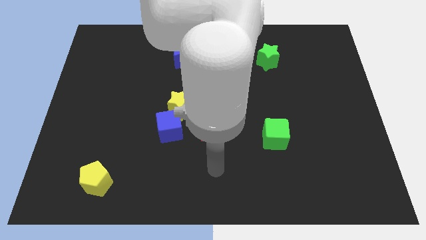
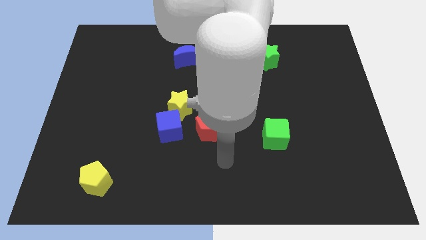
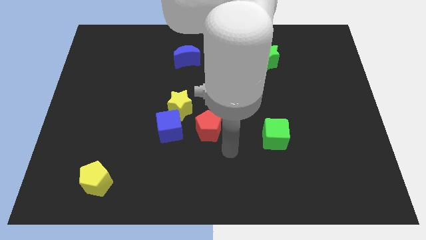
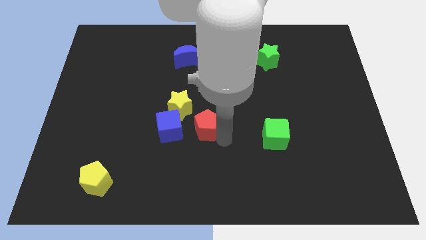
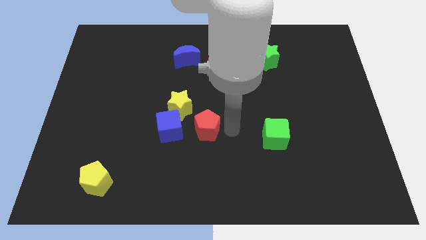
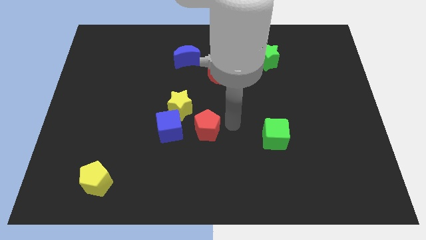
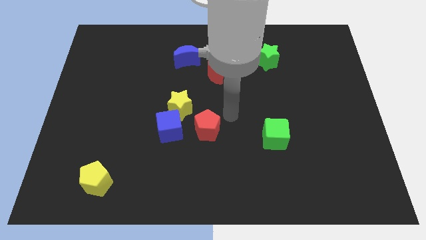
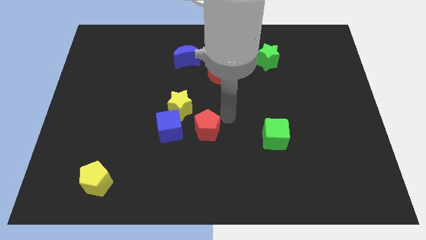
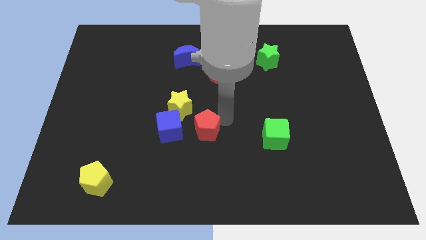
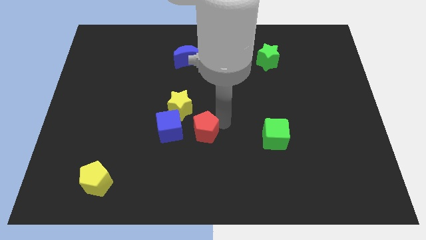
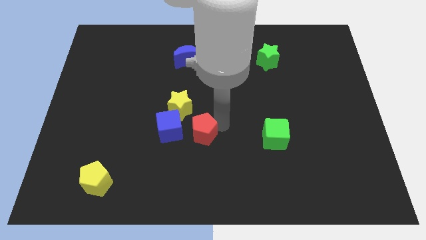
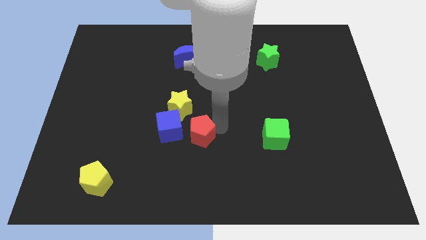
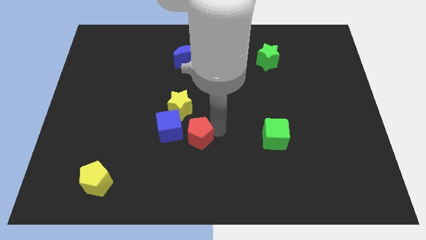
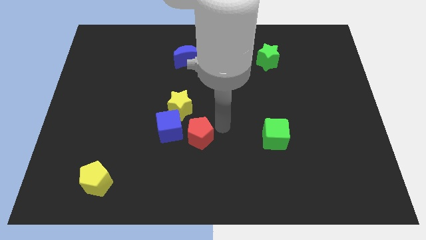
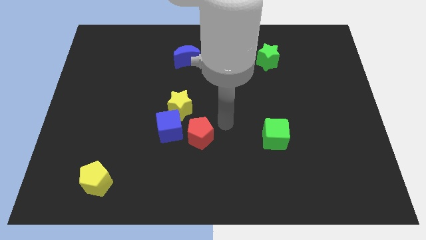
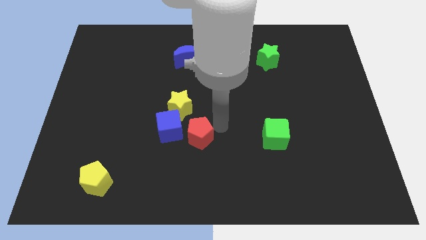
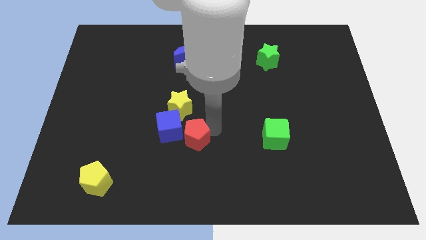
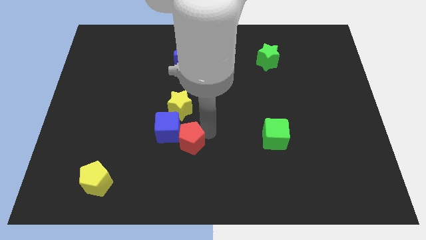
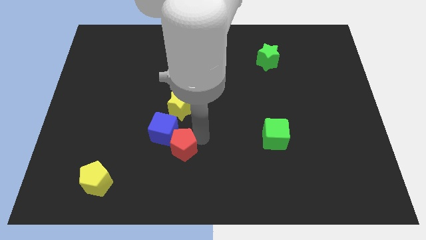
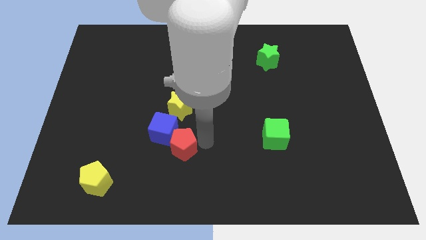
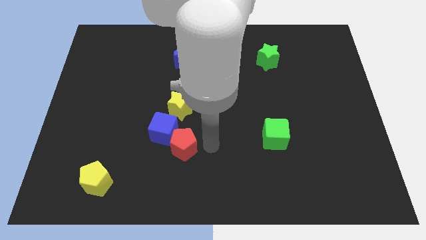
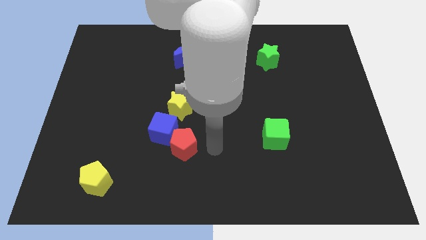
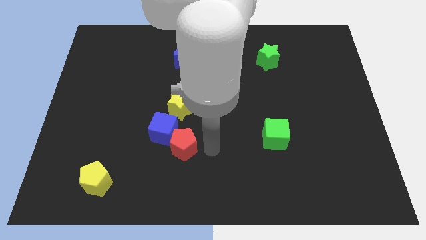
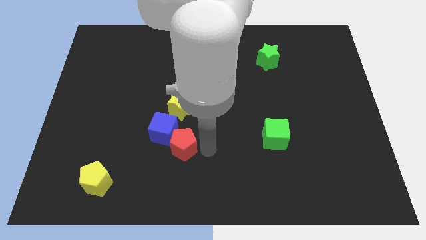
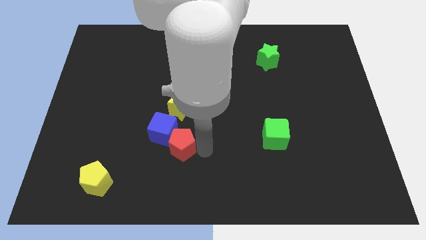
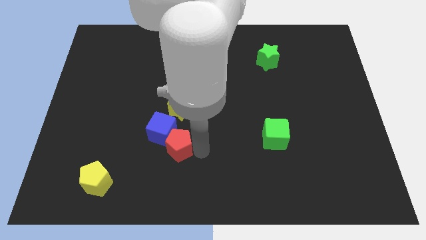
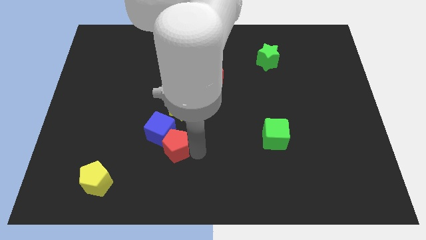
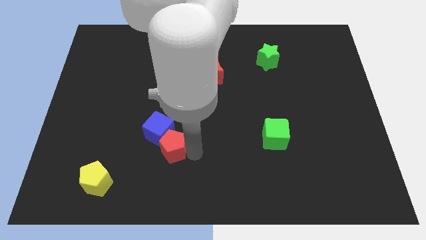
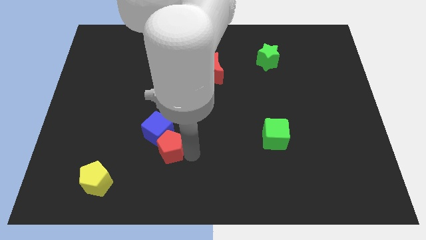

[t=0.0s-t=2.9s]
push the red pentagon left somewhat

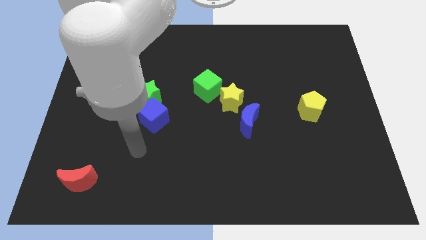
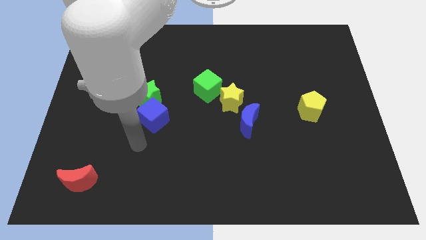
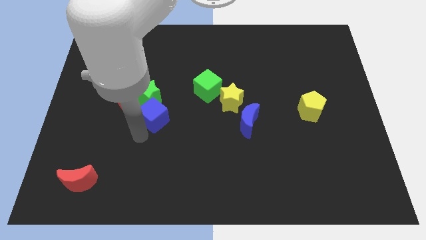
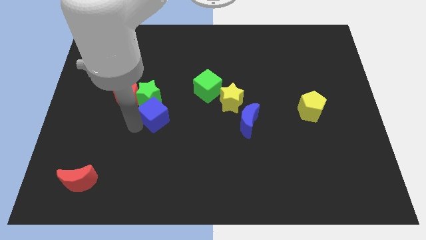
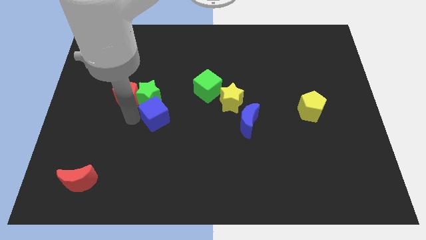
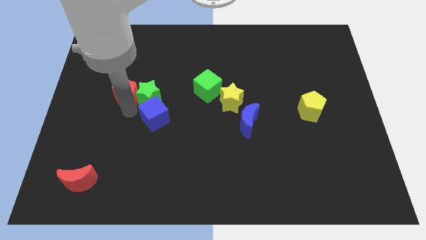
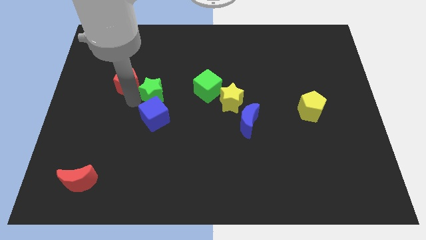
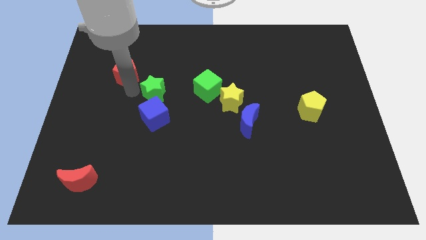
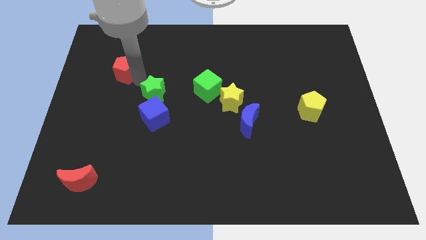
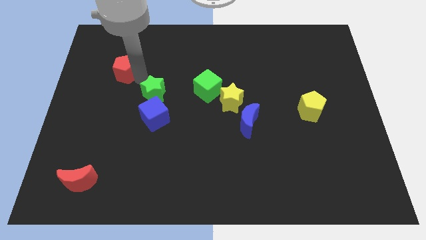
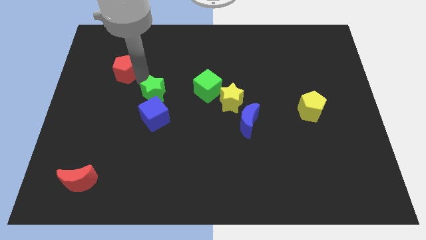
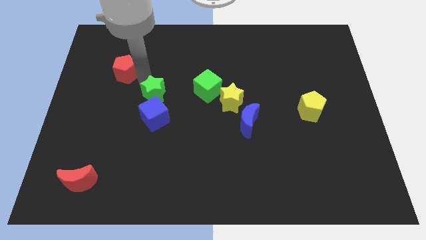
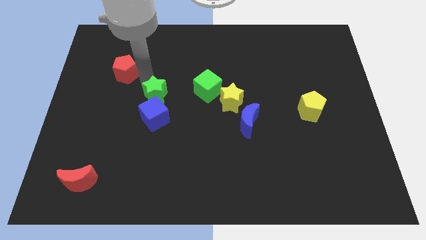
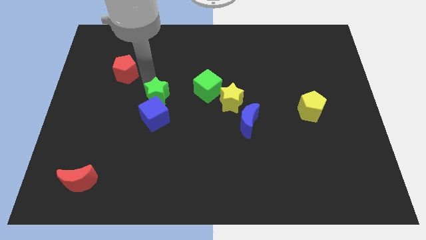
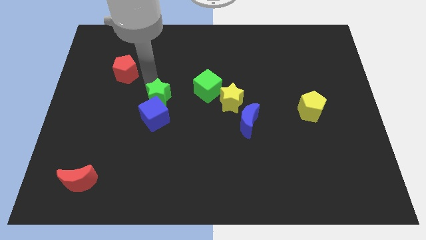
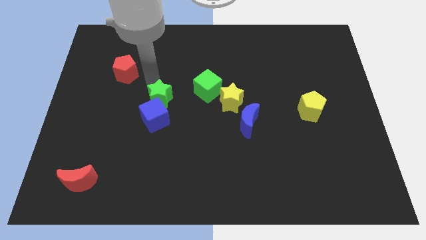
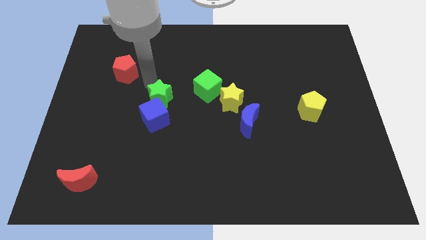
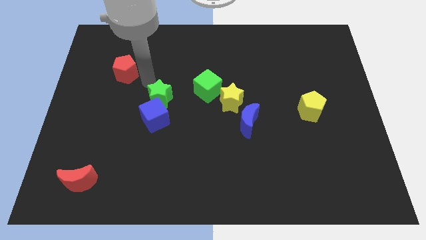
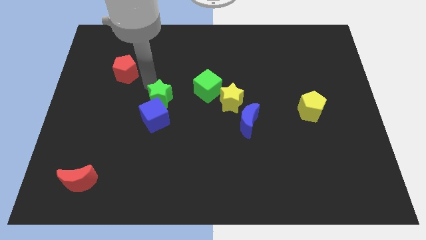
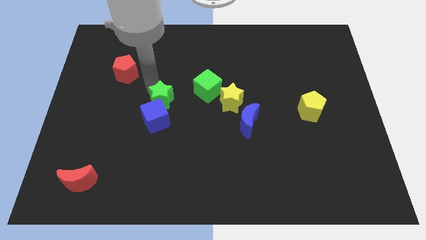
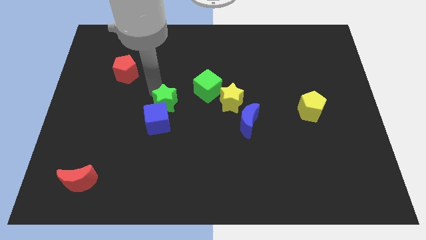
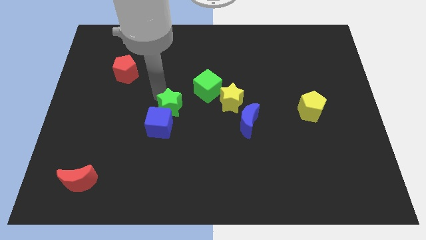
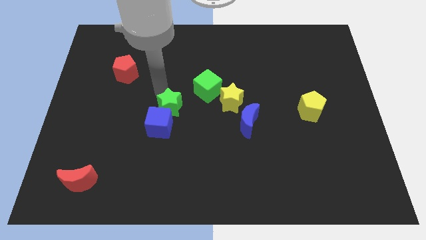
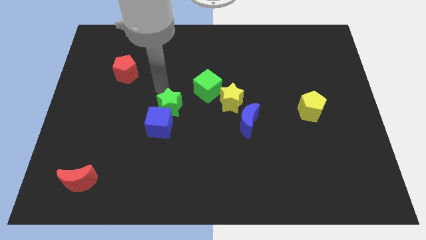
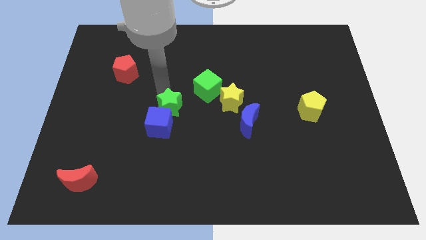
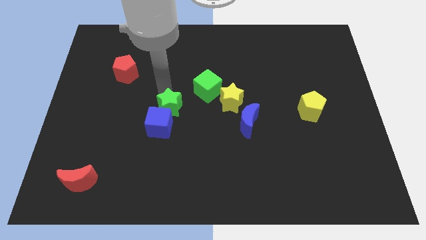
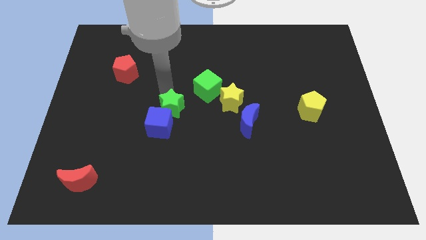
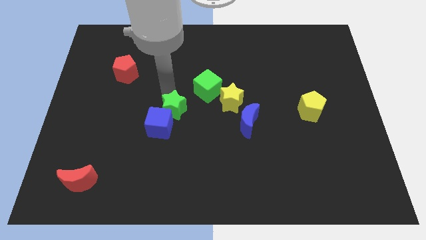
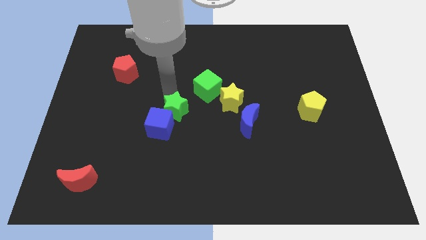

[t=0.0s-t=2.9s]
move the green star downwards and then to the right somewhat

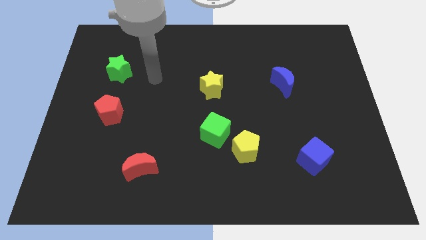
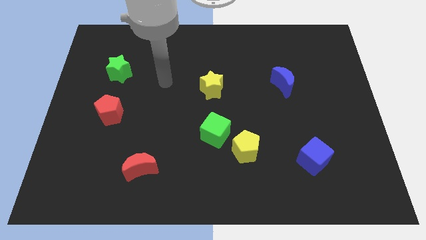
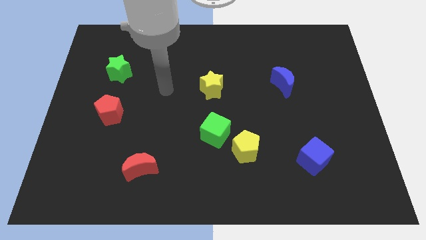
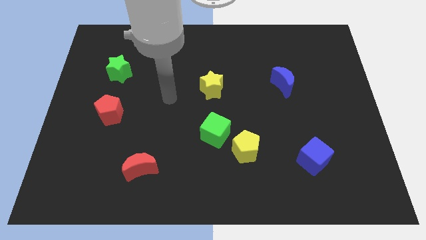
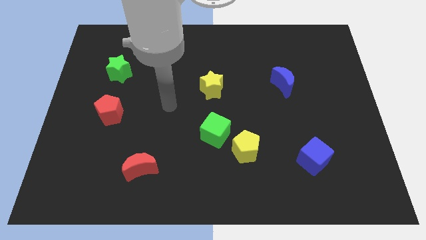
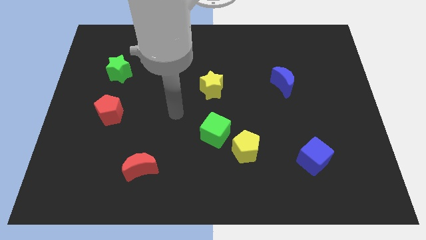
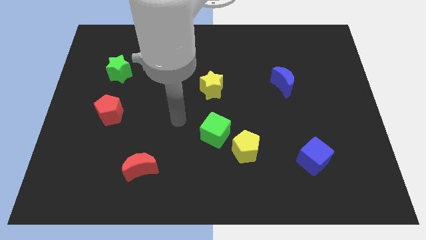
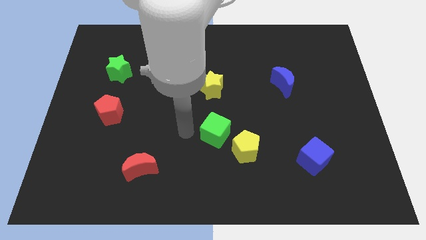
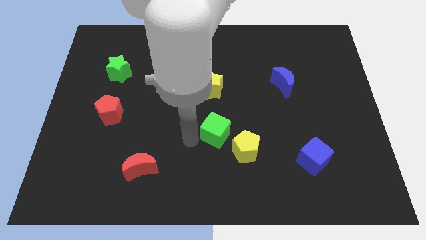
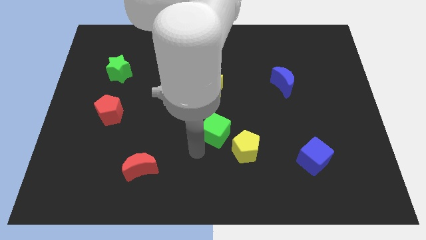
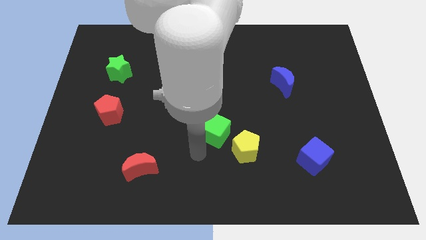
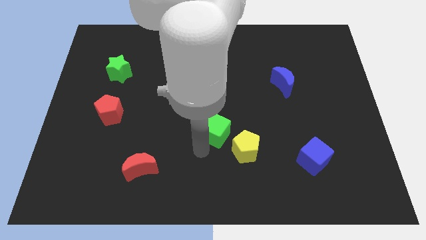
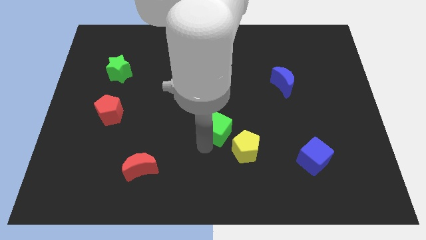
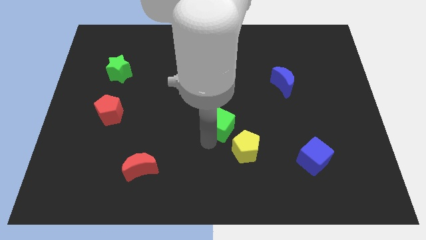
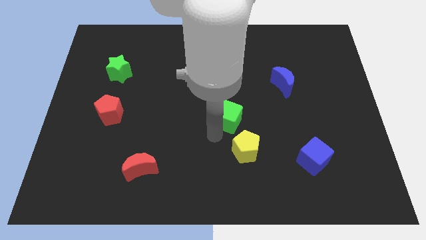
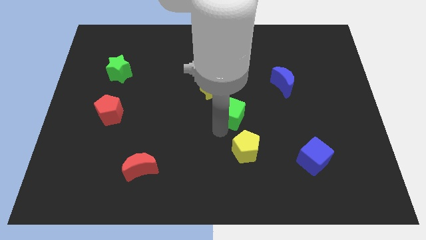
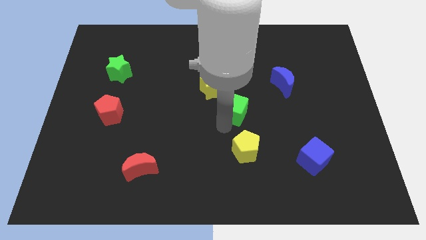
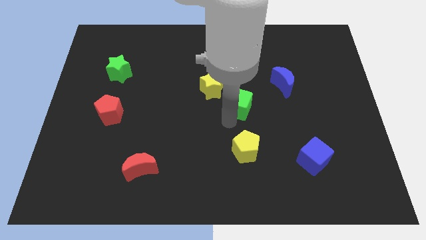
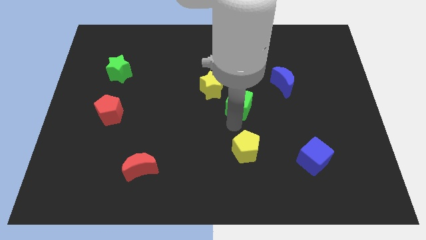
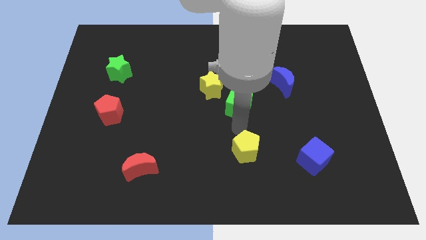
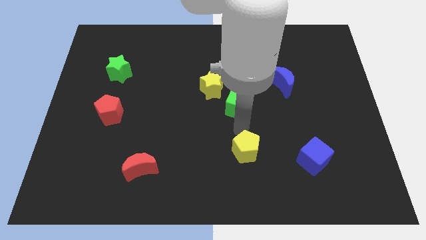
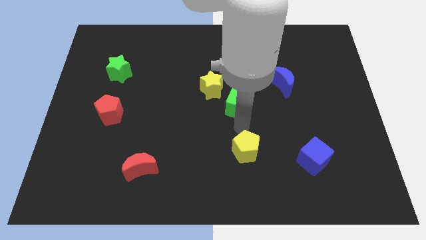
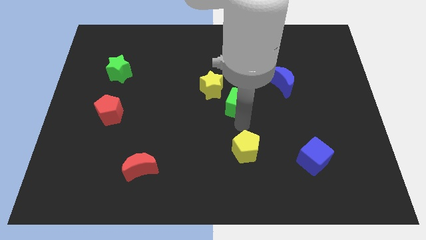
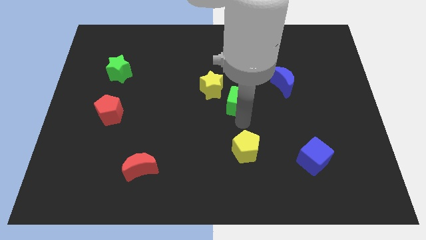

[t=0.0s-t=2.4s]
push the green cube a little upwards
